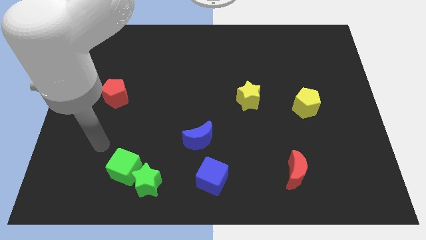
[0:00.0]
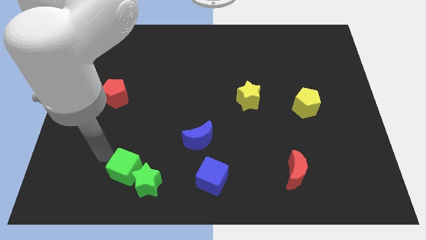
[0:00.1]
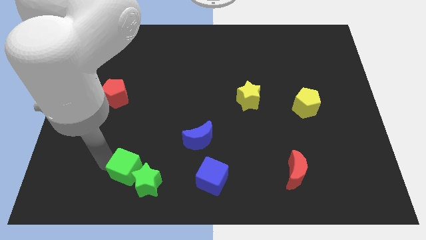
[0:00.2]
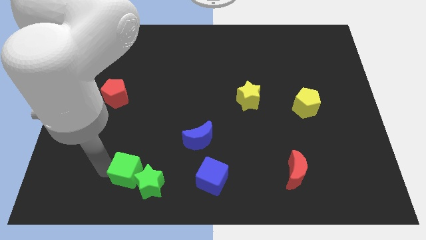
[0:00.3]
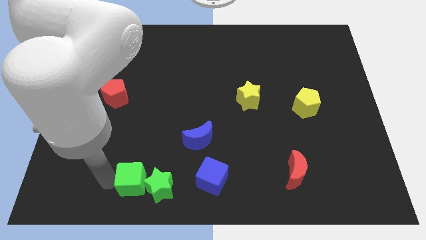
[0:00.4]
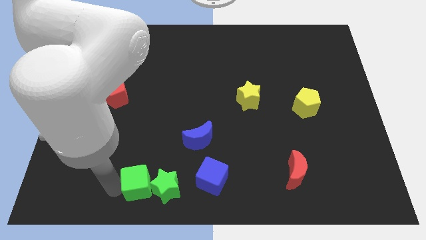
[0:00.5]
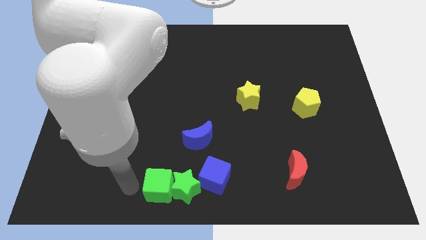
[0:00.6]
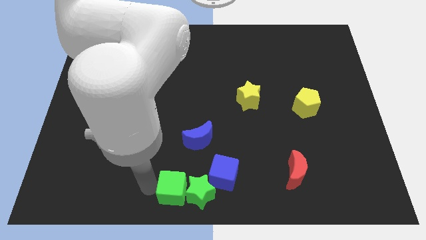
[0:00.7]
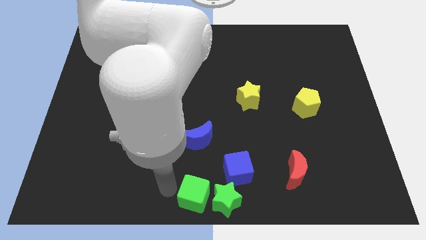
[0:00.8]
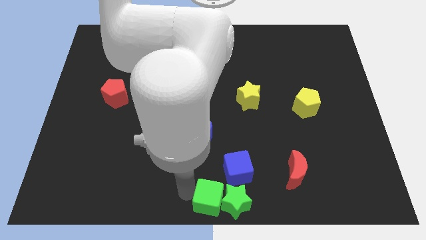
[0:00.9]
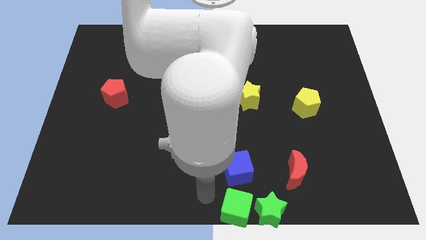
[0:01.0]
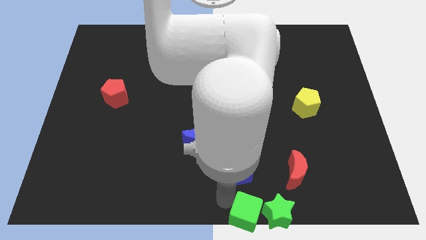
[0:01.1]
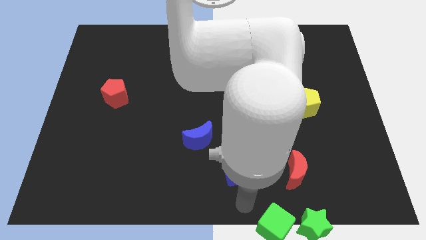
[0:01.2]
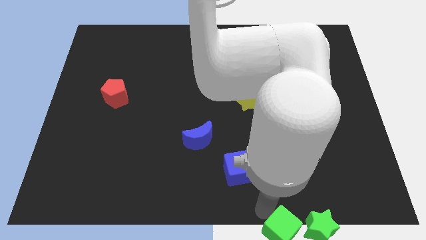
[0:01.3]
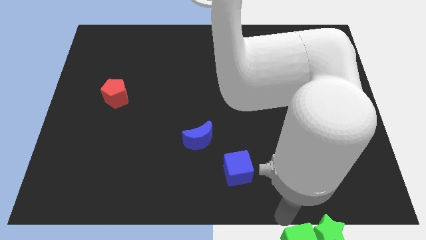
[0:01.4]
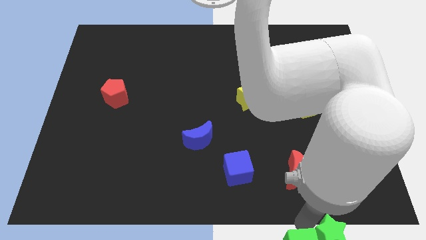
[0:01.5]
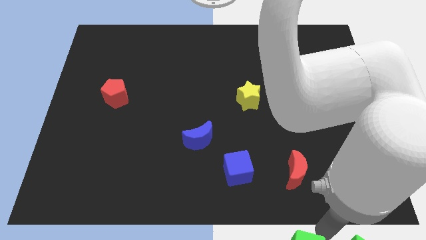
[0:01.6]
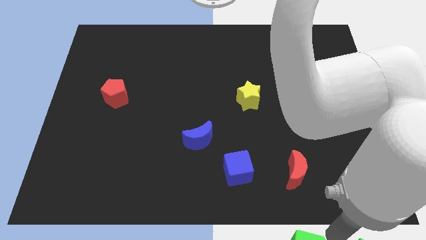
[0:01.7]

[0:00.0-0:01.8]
pull the green cube apart from the green star

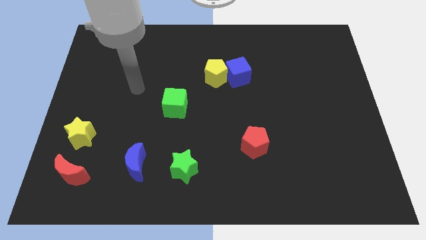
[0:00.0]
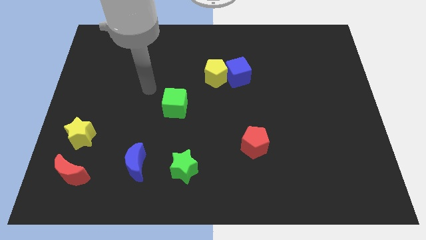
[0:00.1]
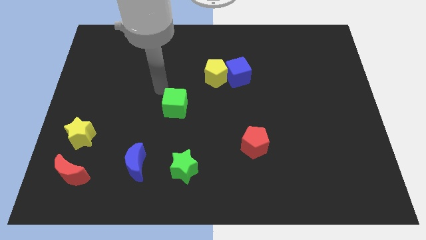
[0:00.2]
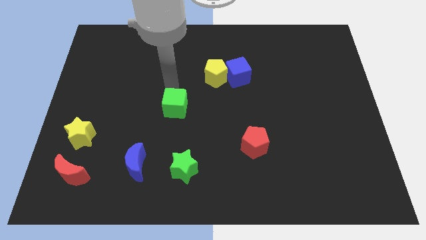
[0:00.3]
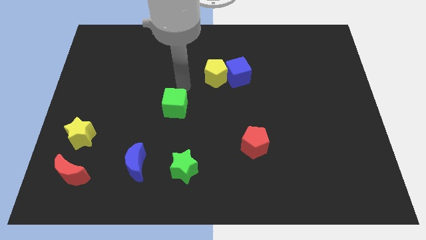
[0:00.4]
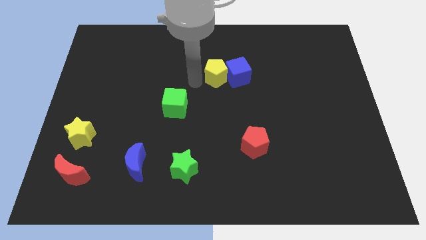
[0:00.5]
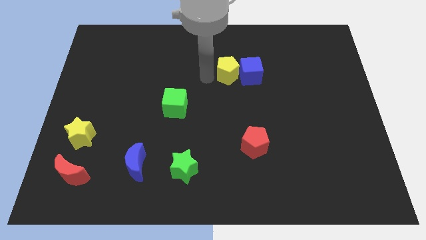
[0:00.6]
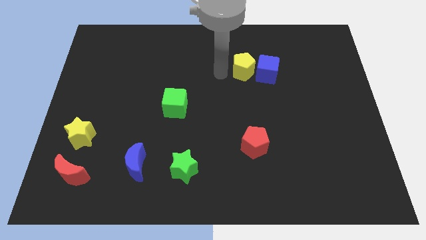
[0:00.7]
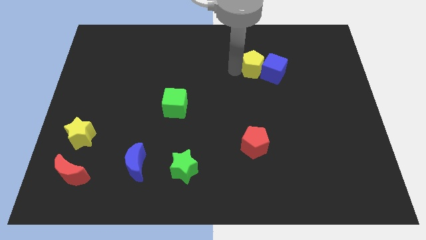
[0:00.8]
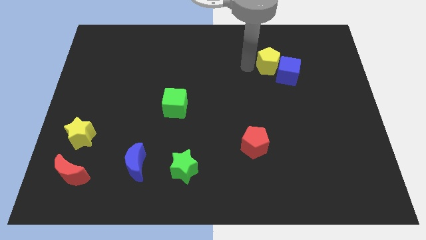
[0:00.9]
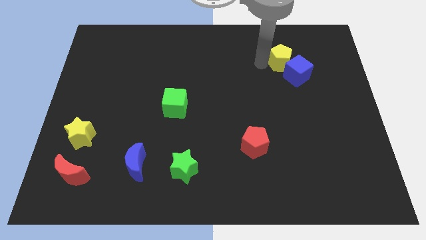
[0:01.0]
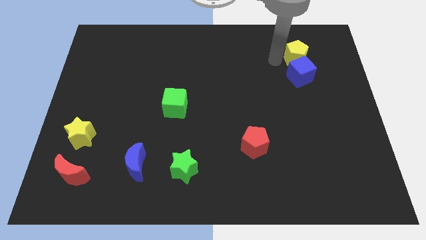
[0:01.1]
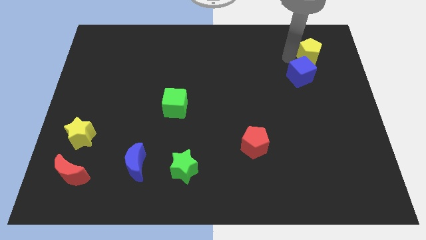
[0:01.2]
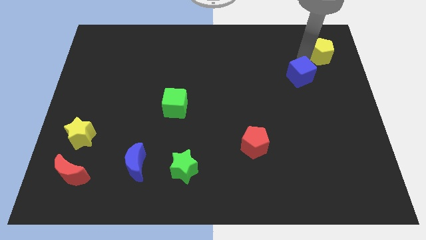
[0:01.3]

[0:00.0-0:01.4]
pull the blue cube apart from the yellow pentagon

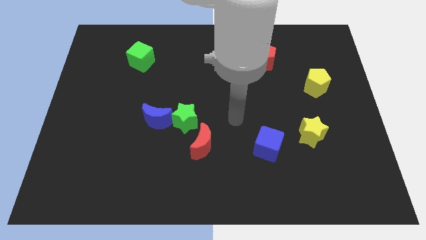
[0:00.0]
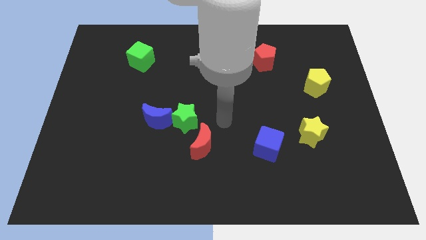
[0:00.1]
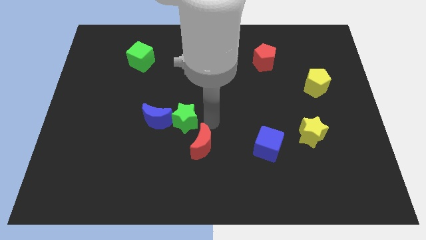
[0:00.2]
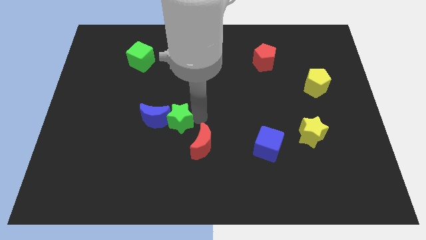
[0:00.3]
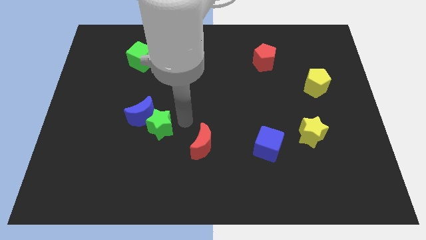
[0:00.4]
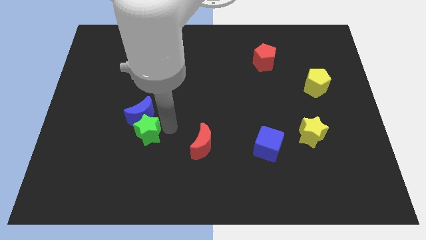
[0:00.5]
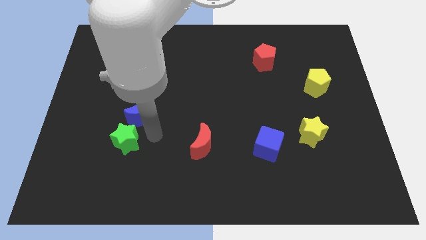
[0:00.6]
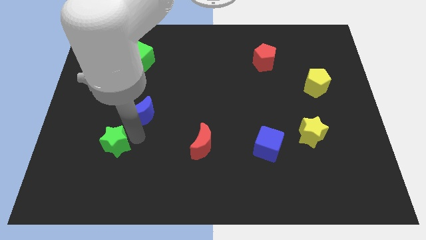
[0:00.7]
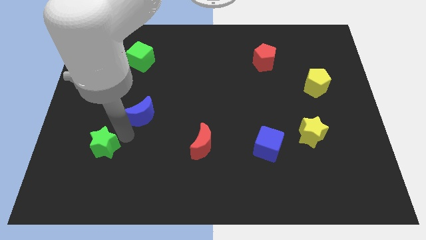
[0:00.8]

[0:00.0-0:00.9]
pull the blue moon apart from the green star

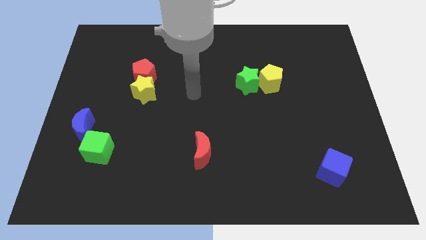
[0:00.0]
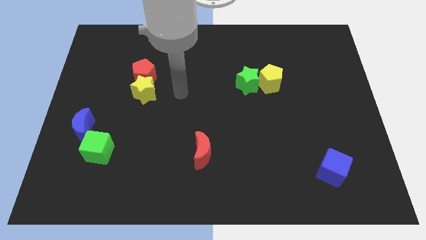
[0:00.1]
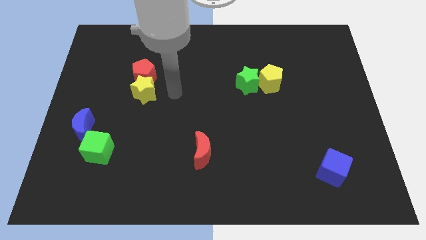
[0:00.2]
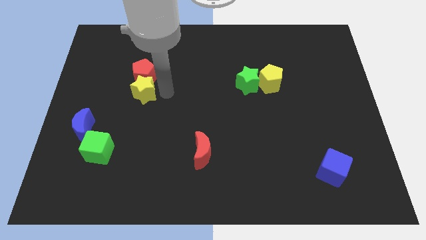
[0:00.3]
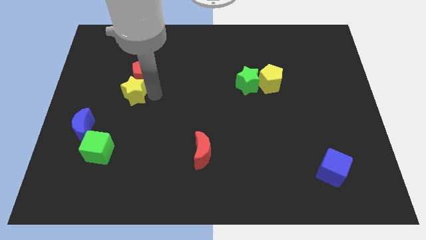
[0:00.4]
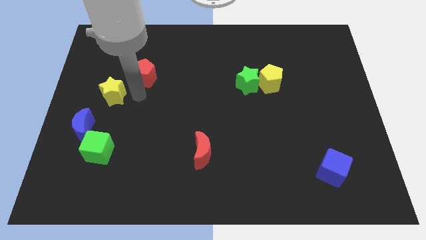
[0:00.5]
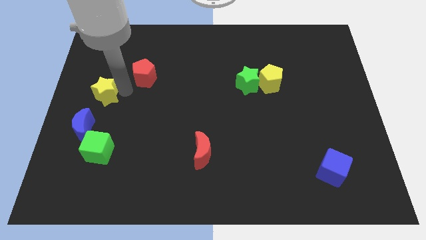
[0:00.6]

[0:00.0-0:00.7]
separate the red pentagon from the yellow star

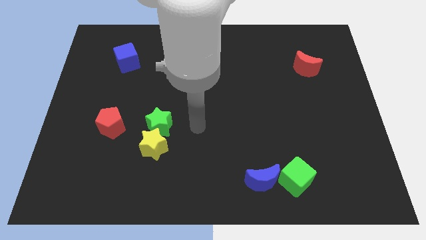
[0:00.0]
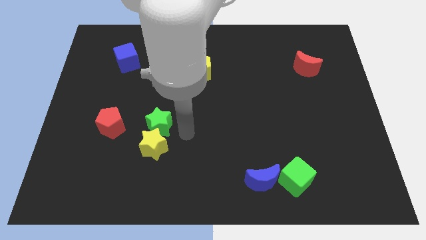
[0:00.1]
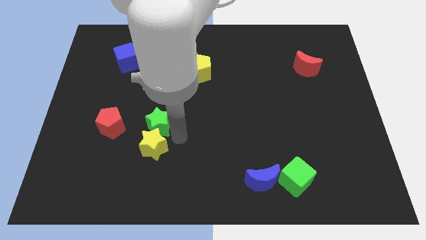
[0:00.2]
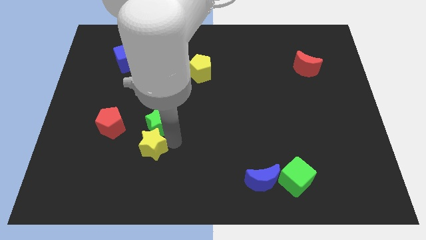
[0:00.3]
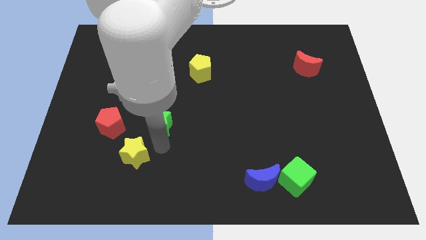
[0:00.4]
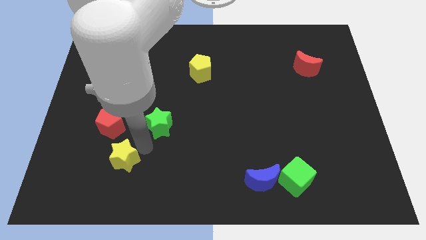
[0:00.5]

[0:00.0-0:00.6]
move the green star away from the yellow star

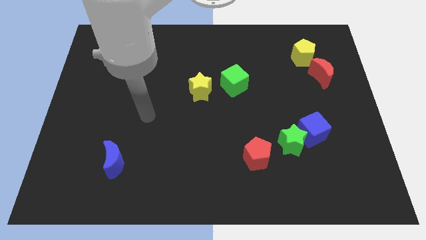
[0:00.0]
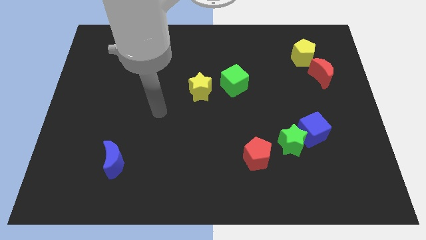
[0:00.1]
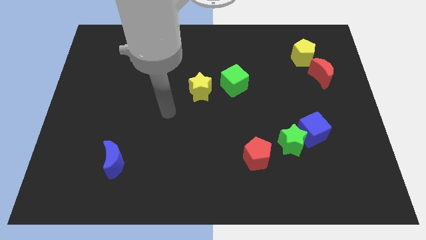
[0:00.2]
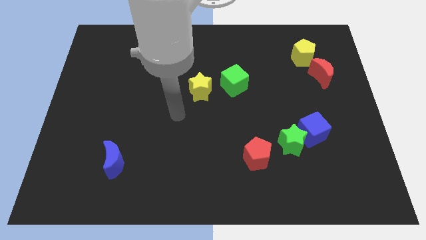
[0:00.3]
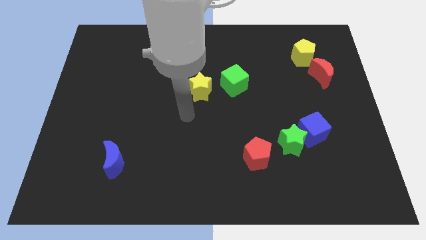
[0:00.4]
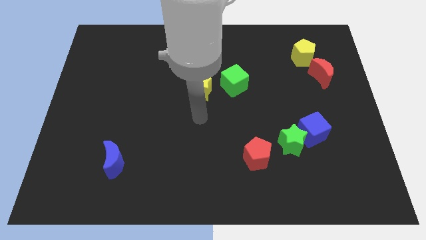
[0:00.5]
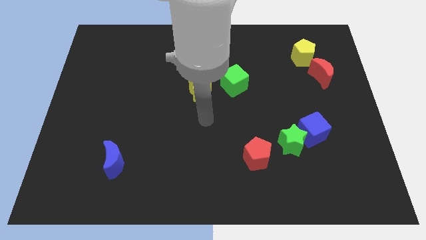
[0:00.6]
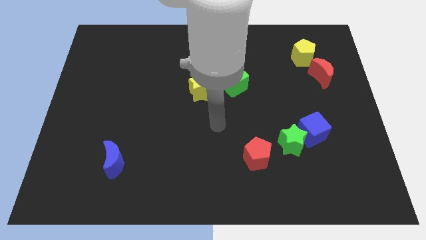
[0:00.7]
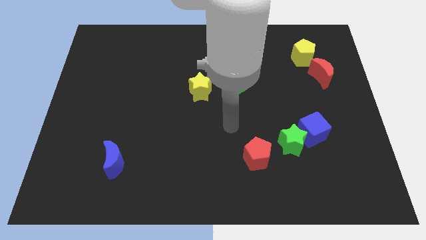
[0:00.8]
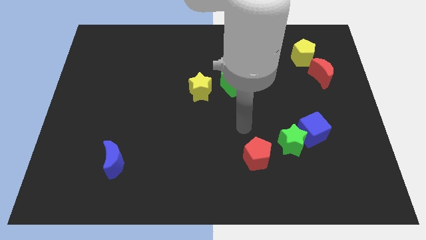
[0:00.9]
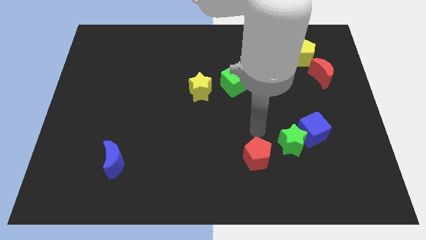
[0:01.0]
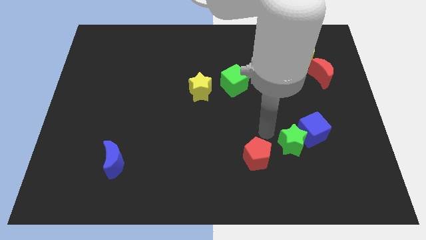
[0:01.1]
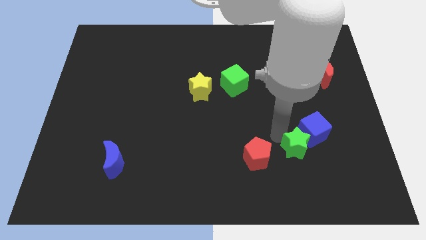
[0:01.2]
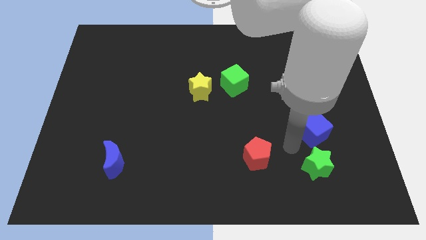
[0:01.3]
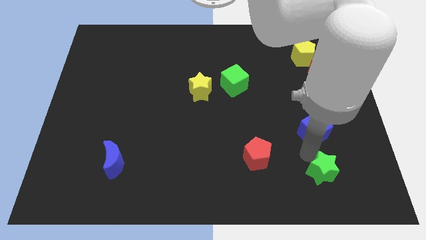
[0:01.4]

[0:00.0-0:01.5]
separate the blue cube from the green star

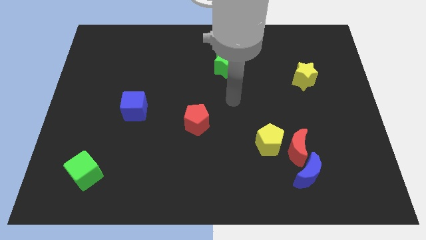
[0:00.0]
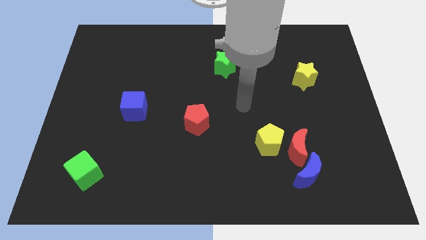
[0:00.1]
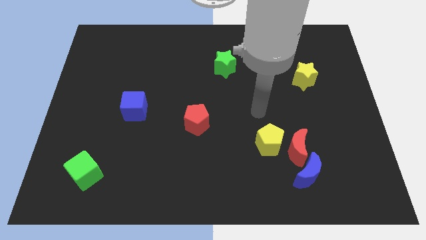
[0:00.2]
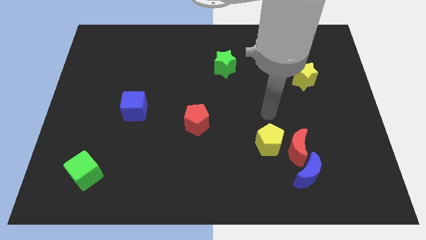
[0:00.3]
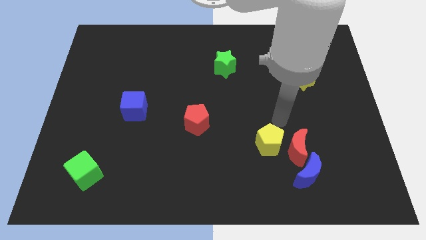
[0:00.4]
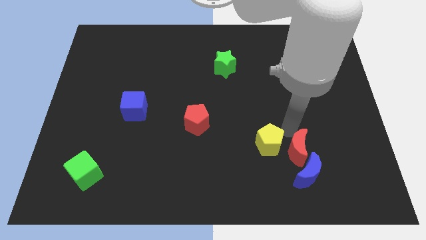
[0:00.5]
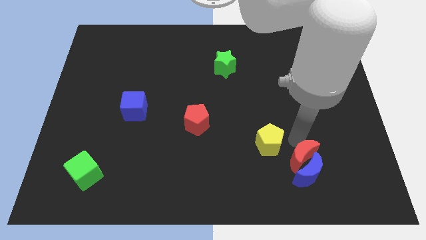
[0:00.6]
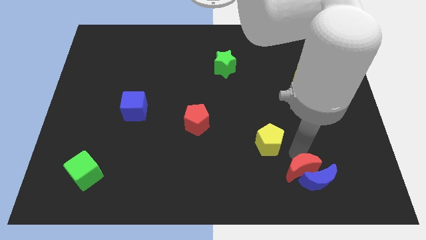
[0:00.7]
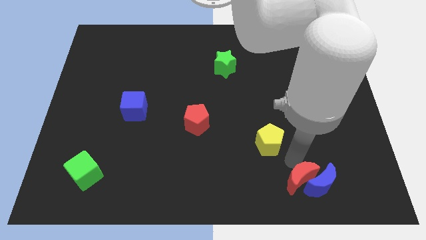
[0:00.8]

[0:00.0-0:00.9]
move the yellow pentagon away from the red moon

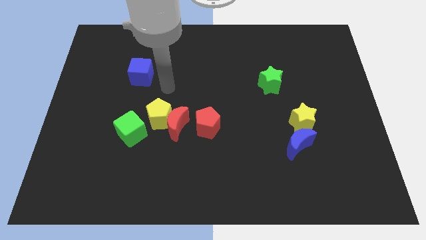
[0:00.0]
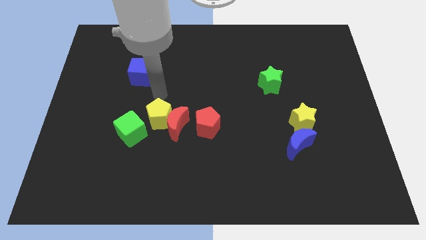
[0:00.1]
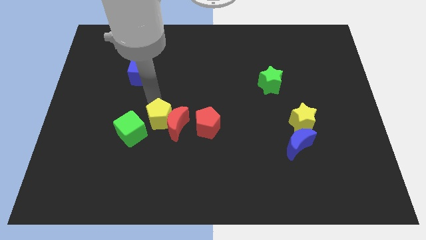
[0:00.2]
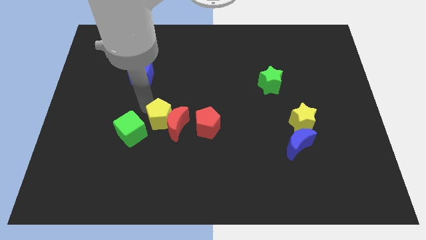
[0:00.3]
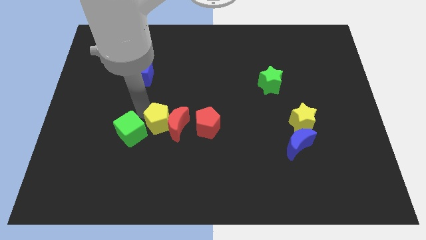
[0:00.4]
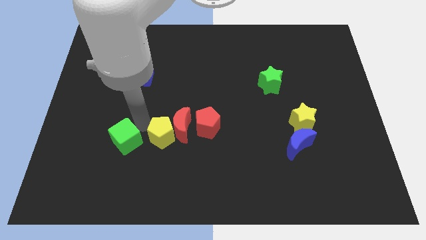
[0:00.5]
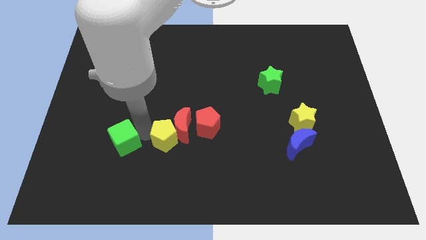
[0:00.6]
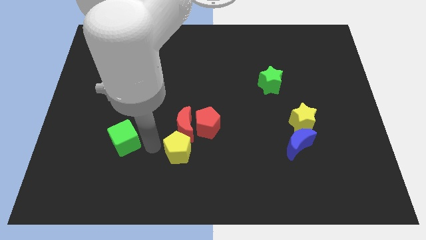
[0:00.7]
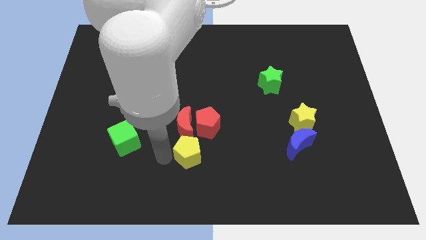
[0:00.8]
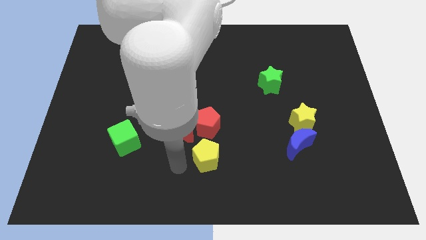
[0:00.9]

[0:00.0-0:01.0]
separate the yellow pentagon from the red moon and green cube

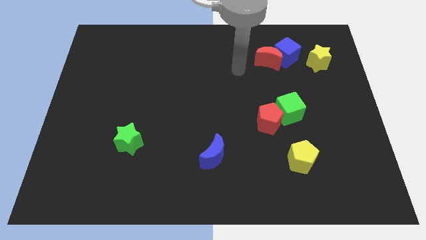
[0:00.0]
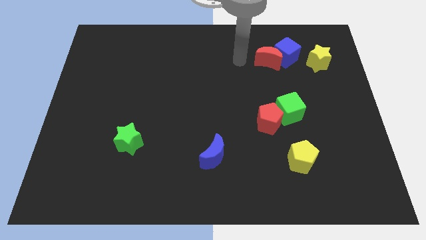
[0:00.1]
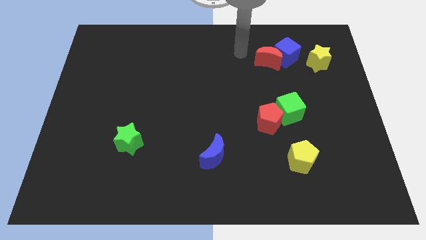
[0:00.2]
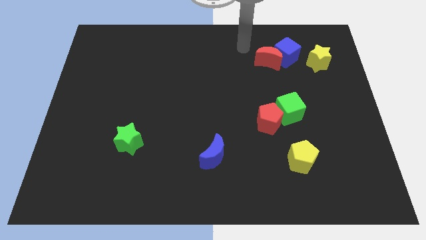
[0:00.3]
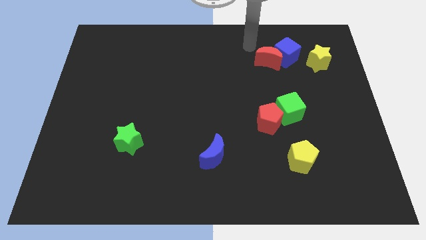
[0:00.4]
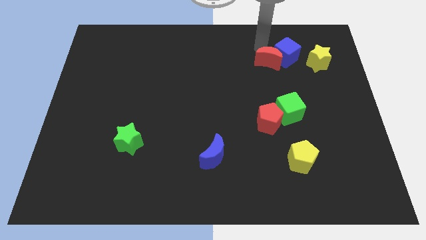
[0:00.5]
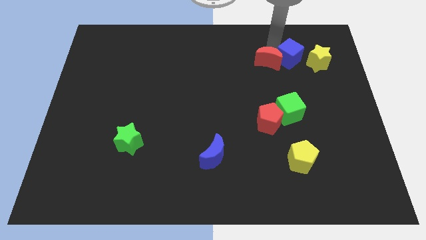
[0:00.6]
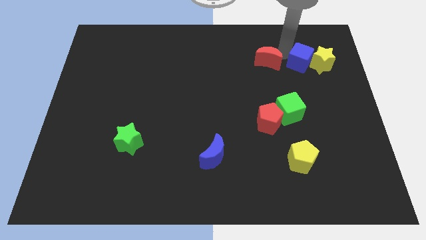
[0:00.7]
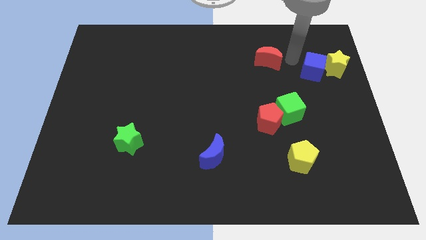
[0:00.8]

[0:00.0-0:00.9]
move the red moon away from the blue cube
